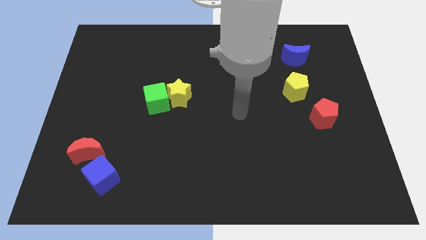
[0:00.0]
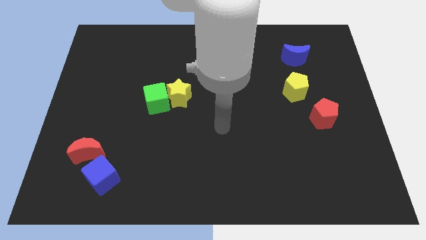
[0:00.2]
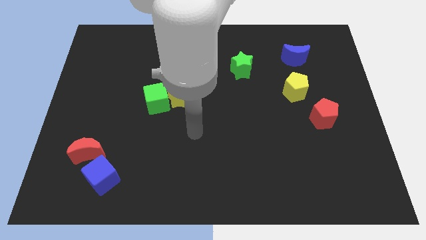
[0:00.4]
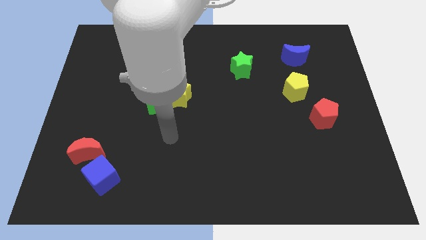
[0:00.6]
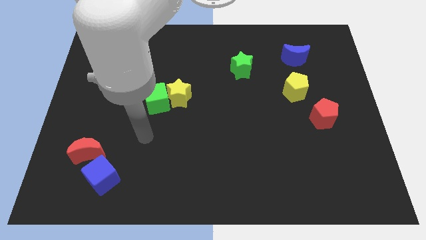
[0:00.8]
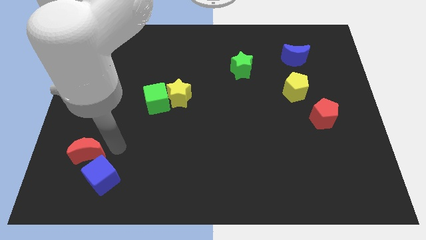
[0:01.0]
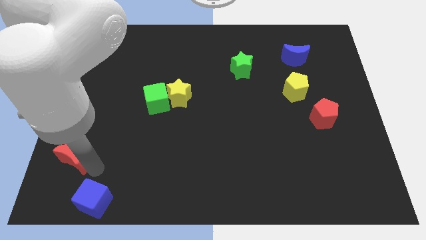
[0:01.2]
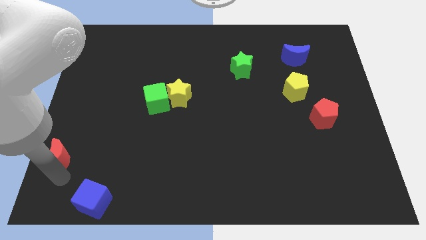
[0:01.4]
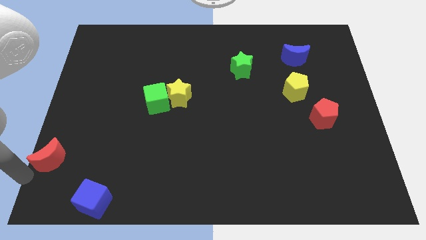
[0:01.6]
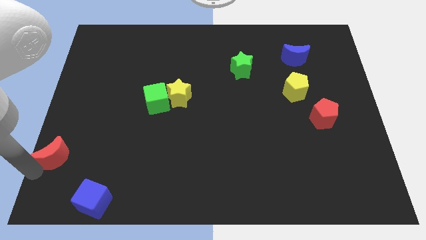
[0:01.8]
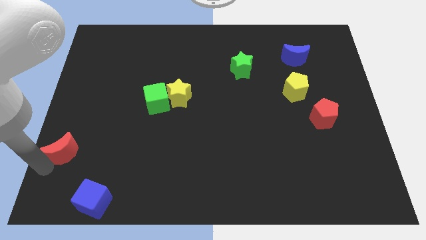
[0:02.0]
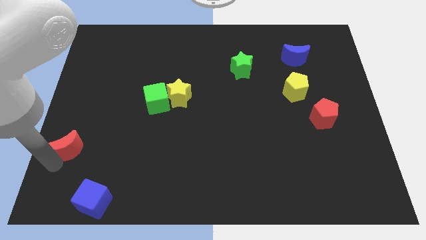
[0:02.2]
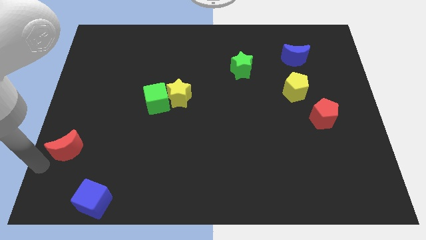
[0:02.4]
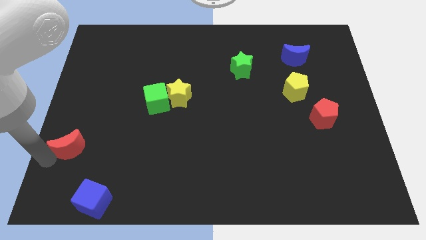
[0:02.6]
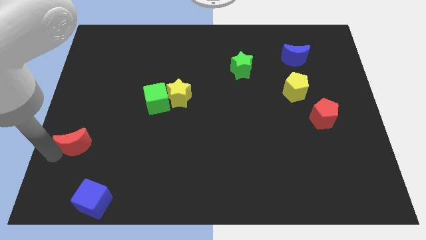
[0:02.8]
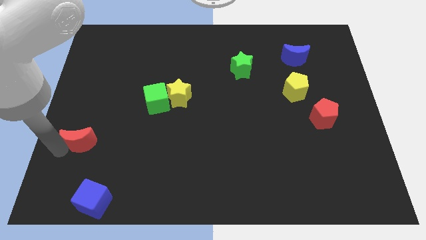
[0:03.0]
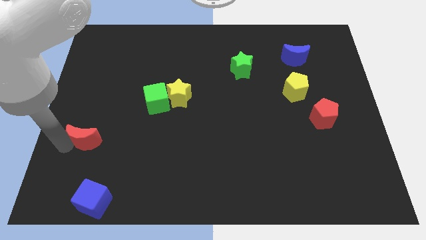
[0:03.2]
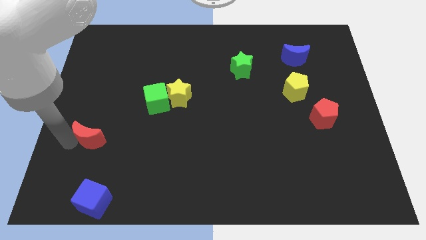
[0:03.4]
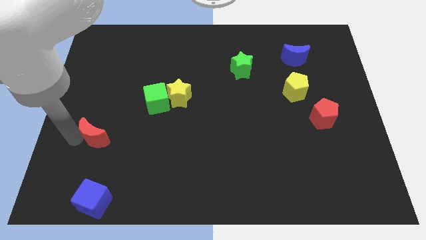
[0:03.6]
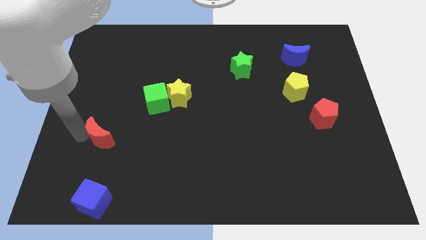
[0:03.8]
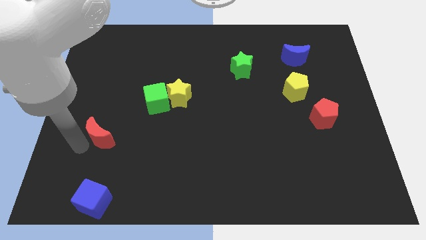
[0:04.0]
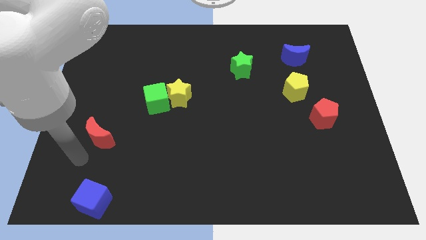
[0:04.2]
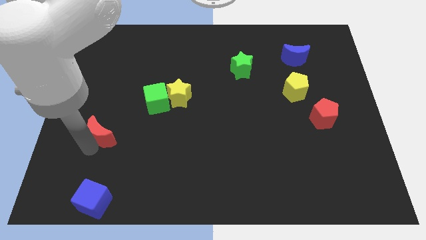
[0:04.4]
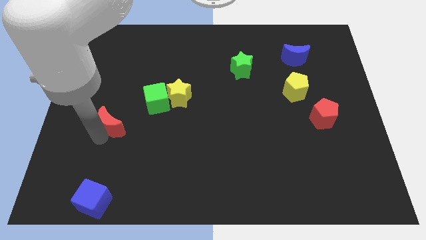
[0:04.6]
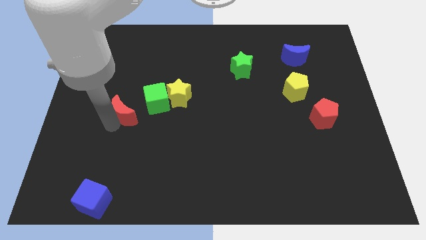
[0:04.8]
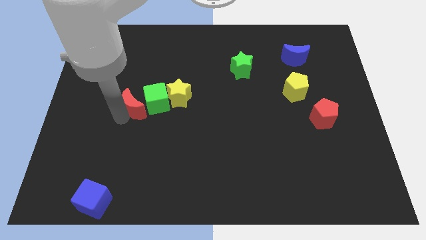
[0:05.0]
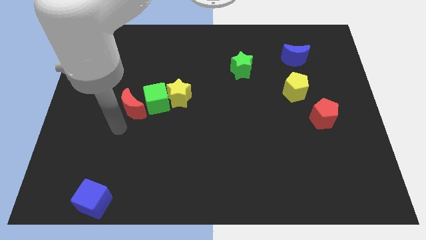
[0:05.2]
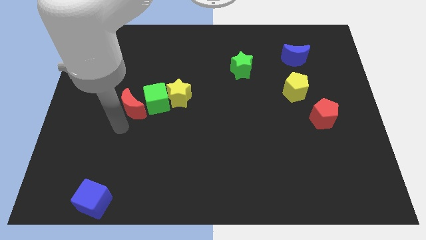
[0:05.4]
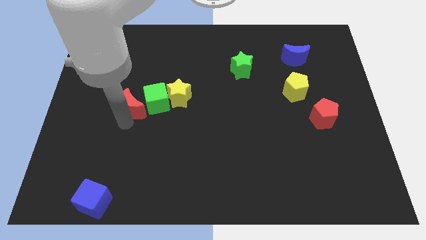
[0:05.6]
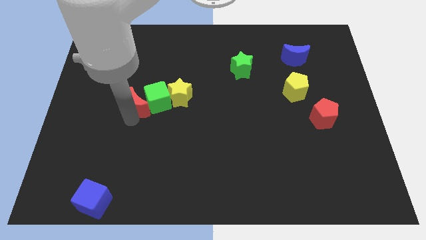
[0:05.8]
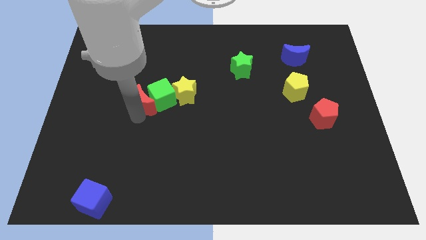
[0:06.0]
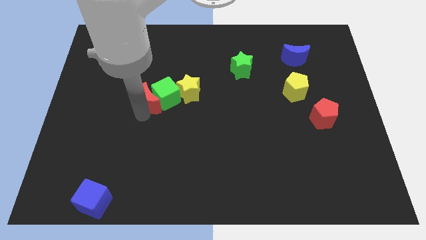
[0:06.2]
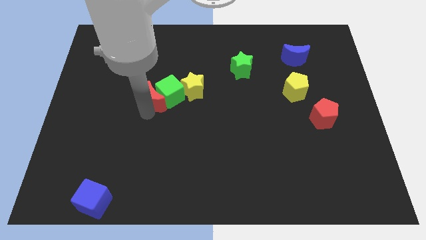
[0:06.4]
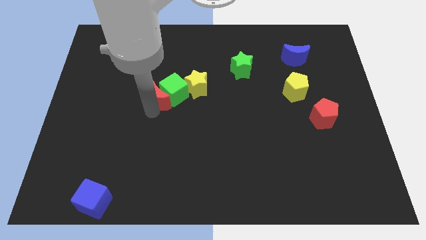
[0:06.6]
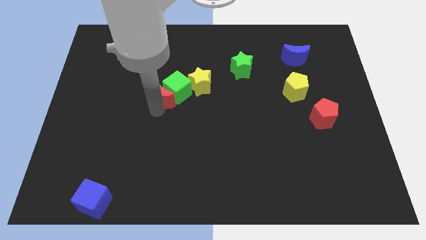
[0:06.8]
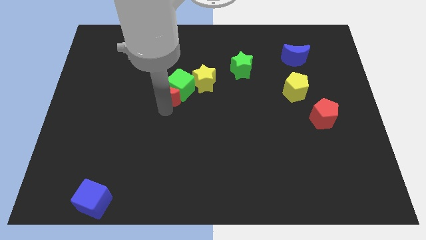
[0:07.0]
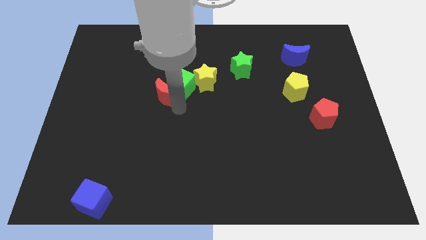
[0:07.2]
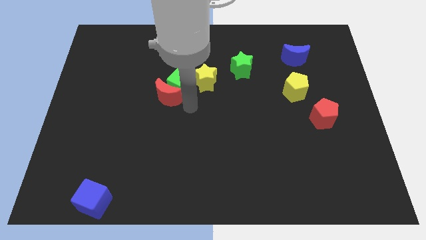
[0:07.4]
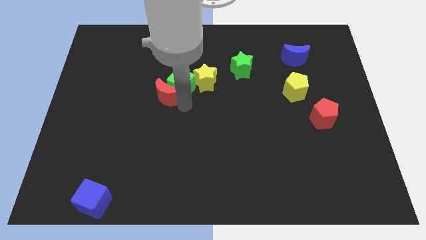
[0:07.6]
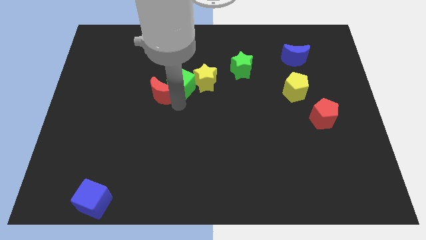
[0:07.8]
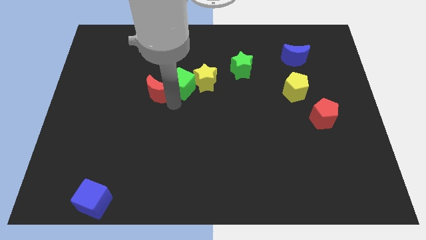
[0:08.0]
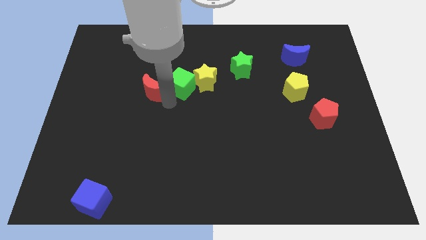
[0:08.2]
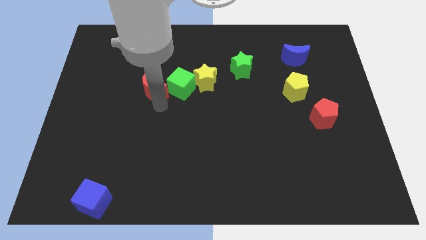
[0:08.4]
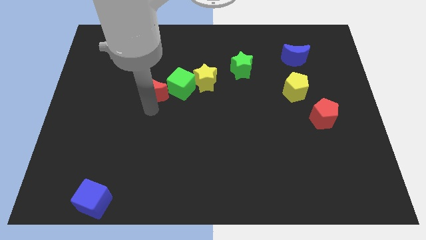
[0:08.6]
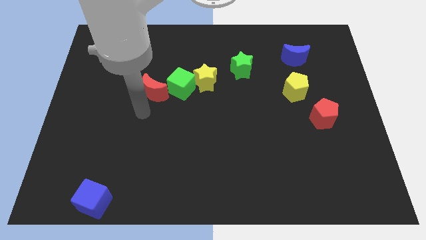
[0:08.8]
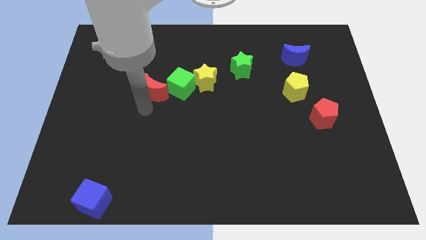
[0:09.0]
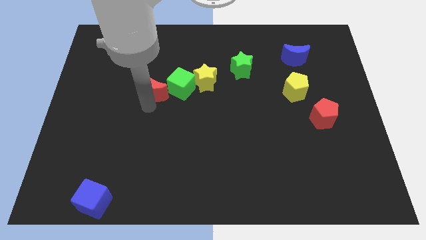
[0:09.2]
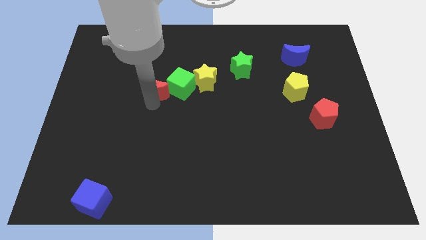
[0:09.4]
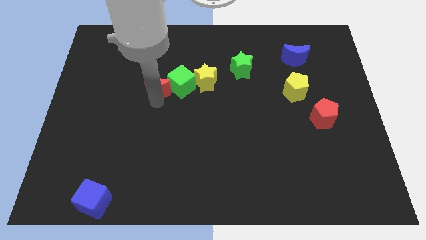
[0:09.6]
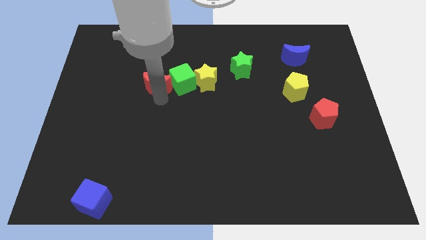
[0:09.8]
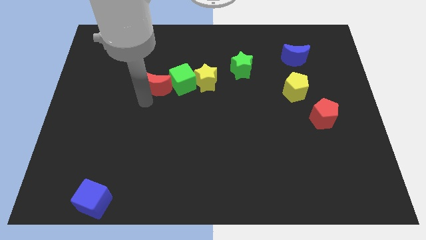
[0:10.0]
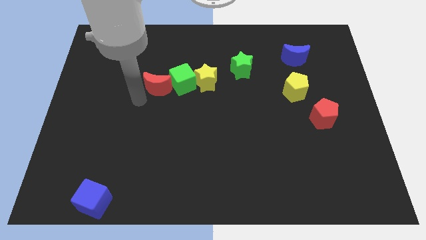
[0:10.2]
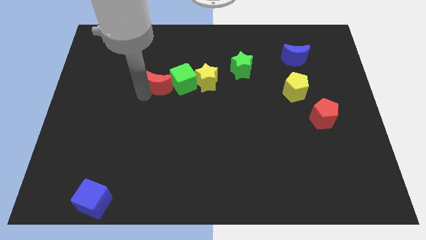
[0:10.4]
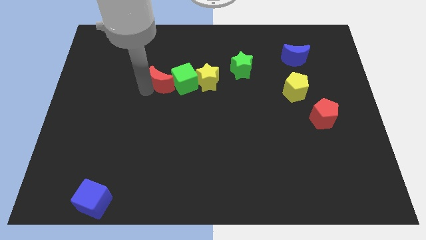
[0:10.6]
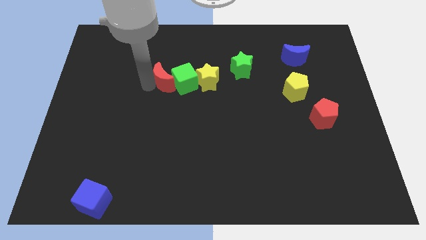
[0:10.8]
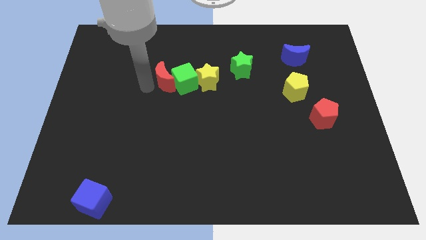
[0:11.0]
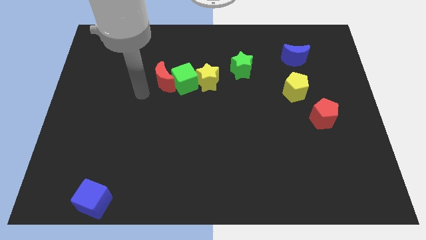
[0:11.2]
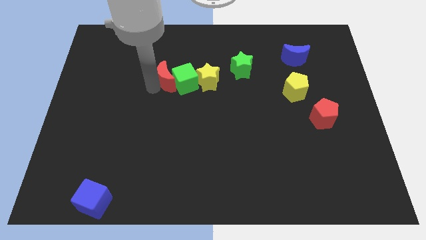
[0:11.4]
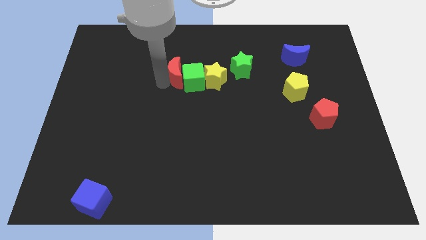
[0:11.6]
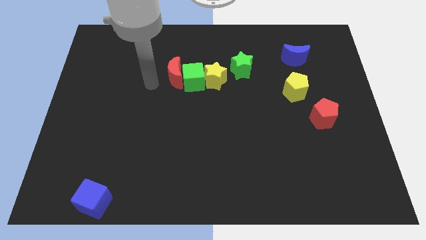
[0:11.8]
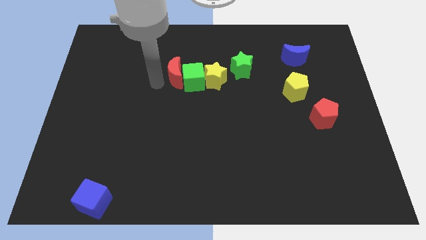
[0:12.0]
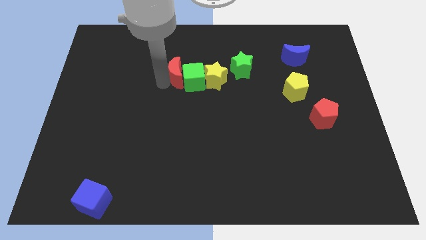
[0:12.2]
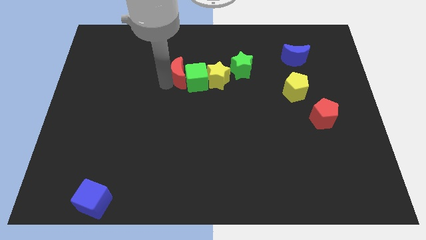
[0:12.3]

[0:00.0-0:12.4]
push the red moon to the left side of the green star
